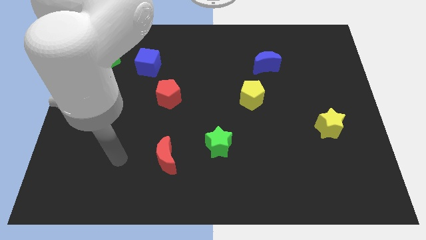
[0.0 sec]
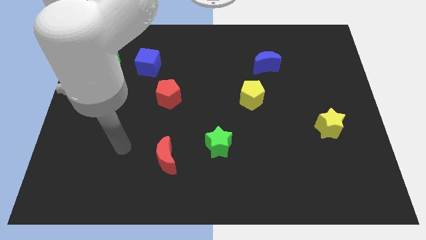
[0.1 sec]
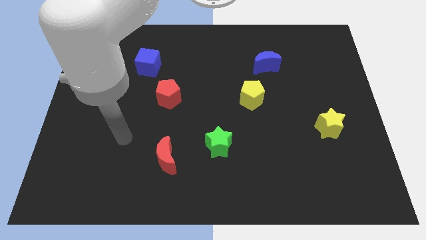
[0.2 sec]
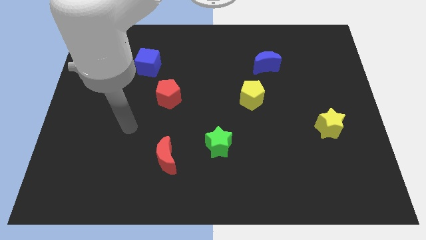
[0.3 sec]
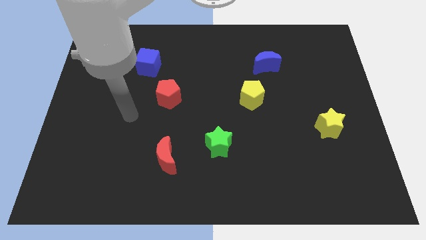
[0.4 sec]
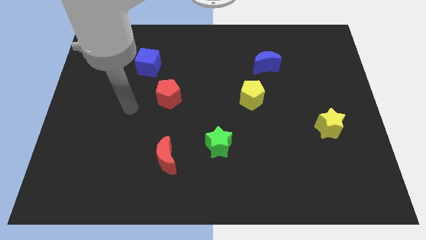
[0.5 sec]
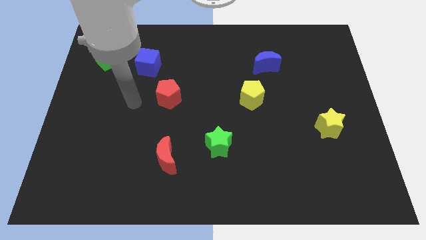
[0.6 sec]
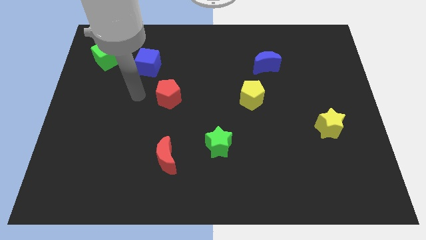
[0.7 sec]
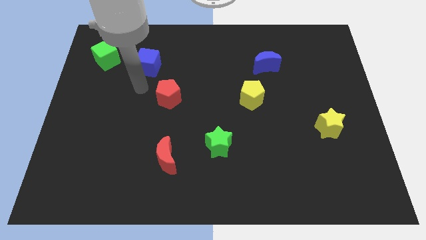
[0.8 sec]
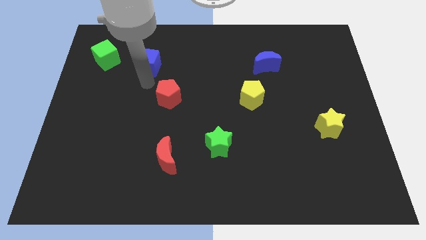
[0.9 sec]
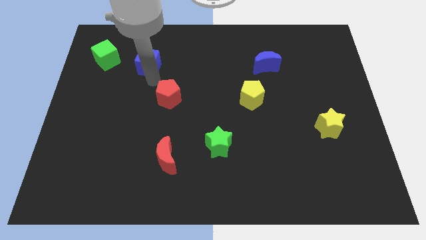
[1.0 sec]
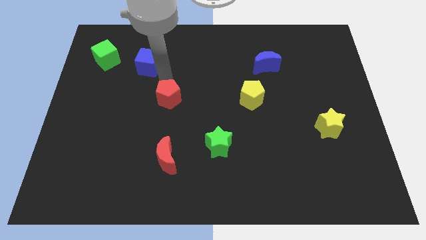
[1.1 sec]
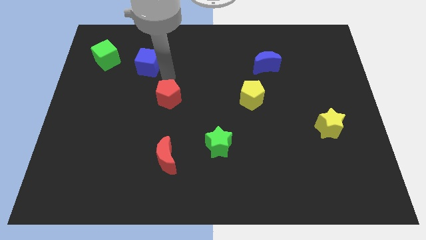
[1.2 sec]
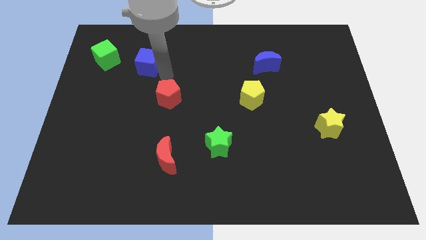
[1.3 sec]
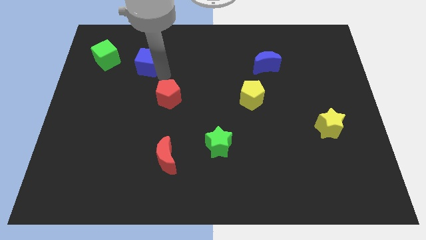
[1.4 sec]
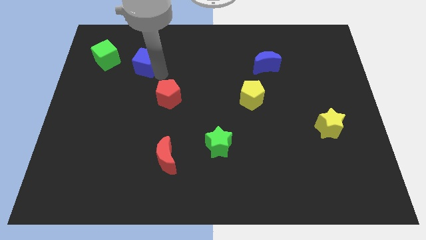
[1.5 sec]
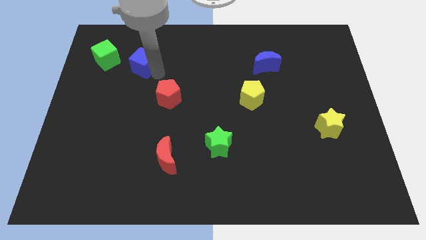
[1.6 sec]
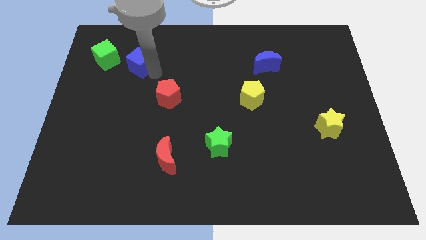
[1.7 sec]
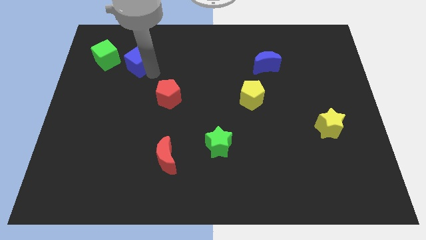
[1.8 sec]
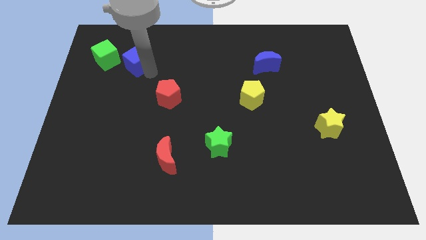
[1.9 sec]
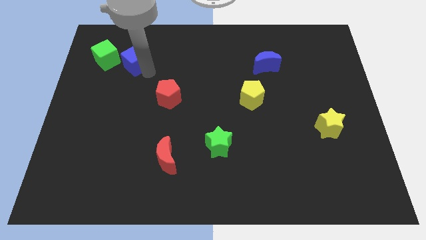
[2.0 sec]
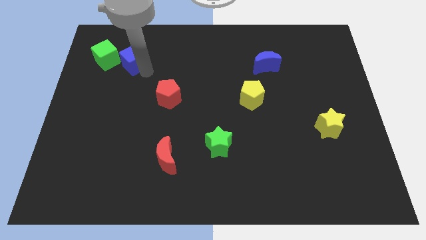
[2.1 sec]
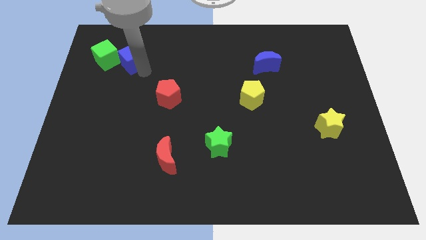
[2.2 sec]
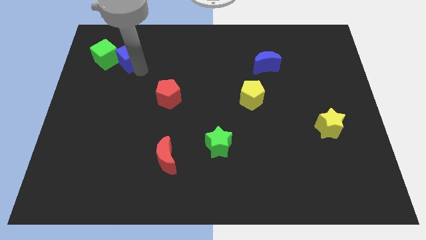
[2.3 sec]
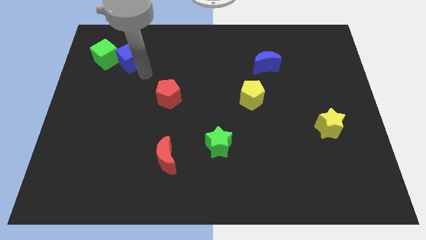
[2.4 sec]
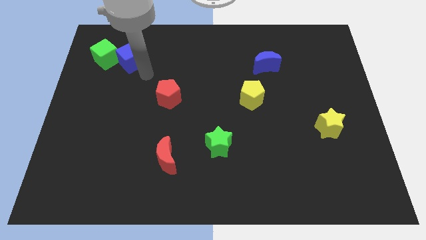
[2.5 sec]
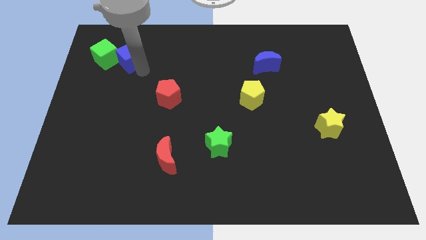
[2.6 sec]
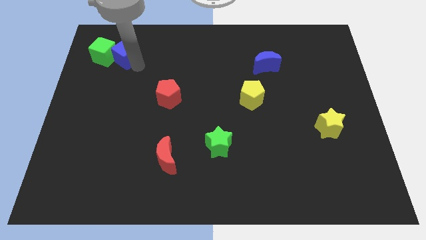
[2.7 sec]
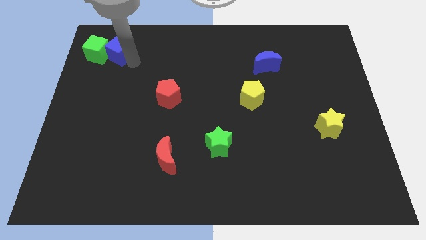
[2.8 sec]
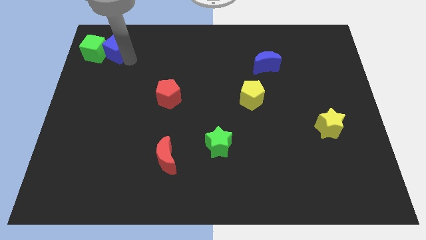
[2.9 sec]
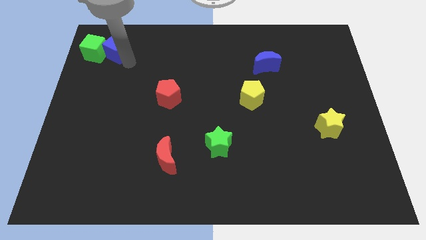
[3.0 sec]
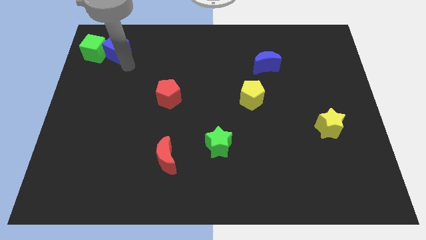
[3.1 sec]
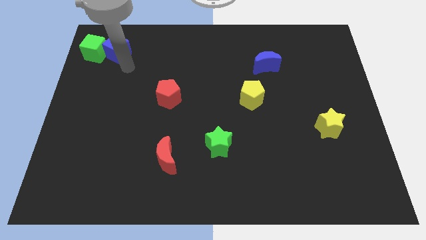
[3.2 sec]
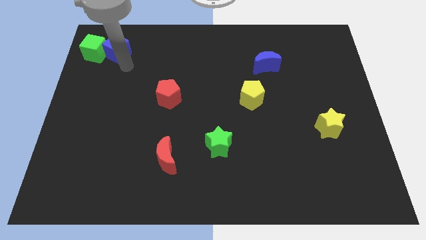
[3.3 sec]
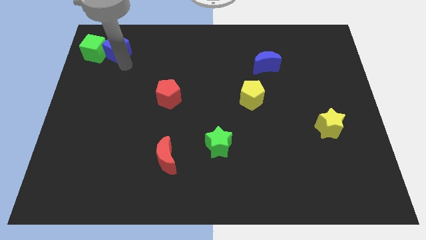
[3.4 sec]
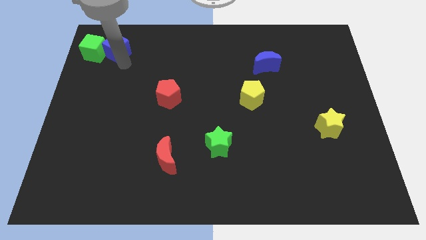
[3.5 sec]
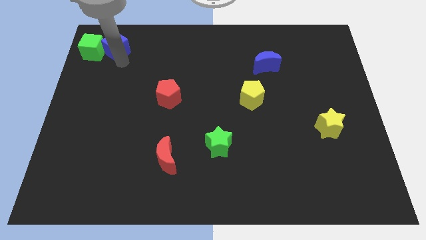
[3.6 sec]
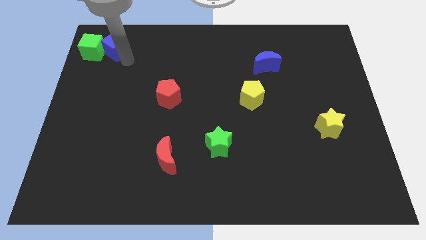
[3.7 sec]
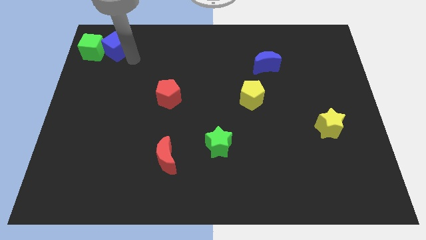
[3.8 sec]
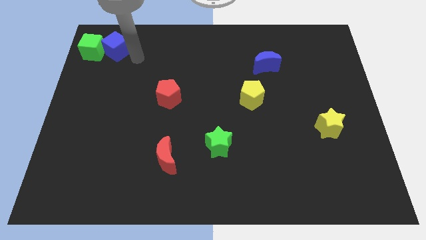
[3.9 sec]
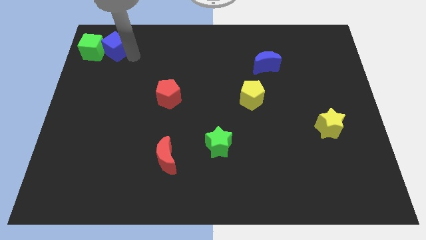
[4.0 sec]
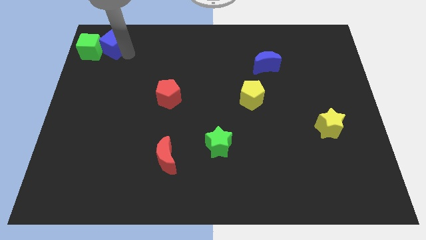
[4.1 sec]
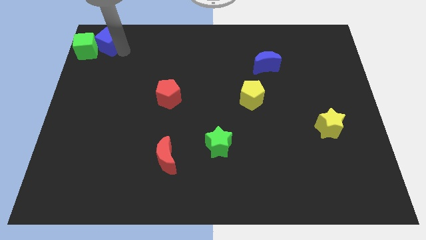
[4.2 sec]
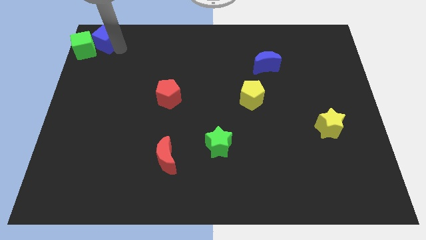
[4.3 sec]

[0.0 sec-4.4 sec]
put the blue cube to the top left of the board

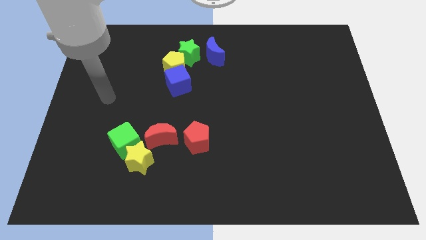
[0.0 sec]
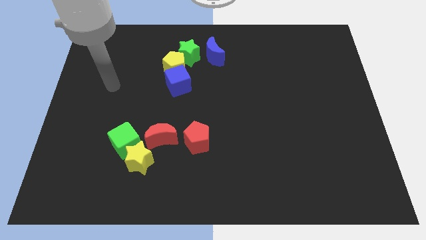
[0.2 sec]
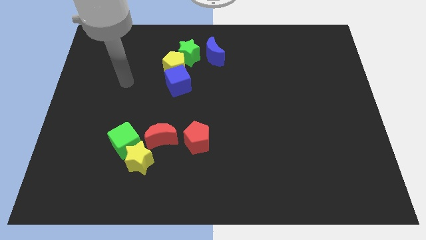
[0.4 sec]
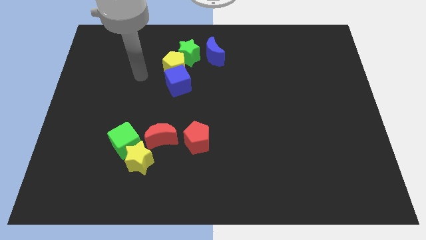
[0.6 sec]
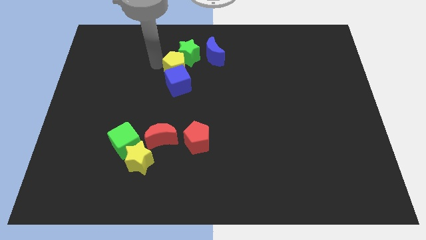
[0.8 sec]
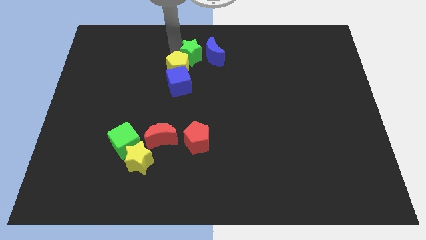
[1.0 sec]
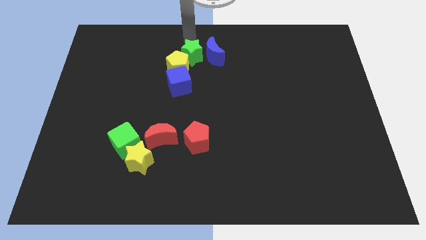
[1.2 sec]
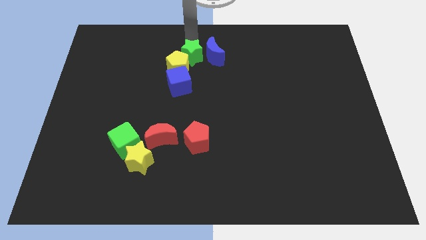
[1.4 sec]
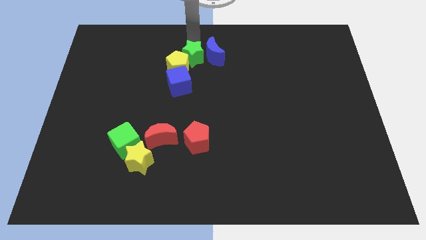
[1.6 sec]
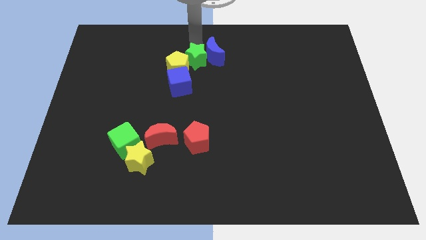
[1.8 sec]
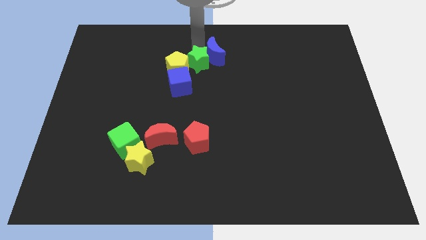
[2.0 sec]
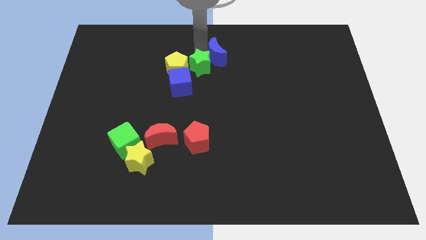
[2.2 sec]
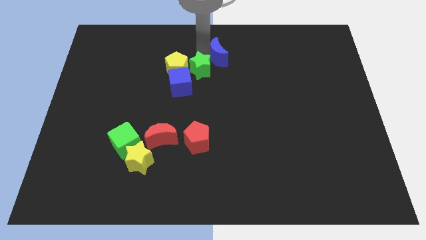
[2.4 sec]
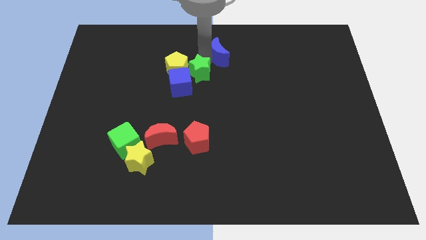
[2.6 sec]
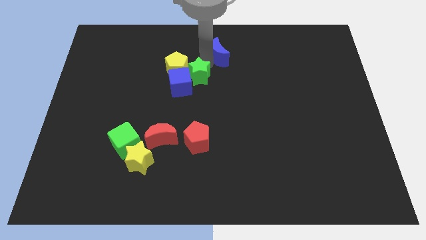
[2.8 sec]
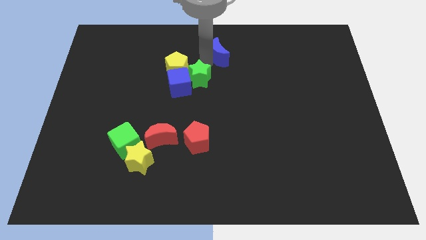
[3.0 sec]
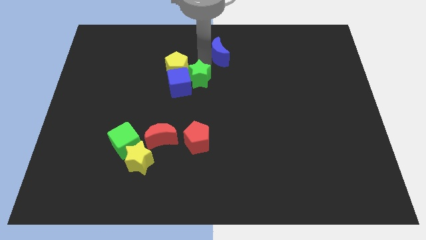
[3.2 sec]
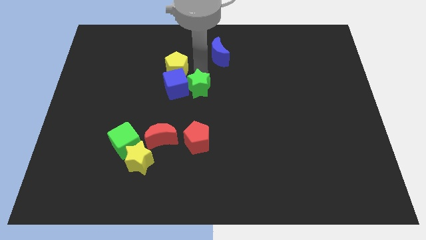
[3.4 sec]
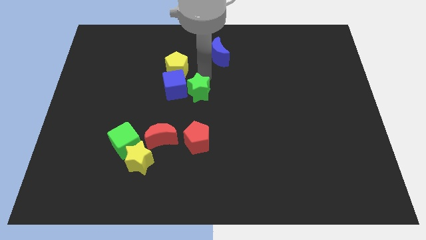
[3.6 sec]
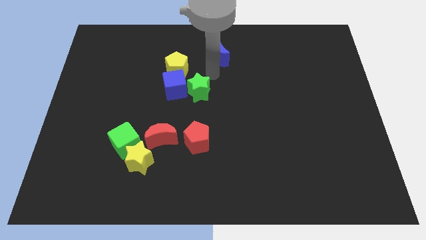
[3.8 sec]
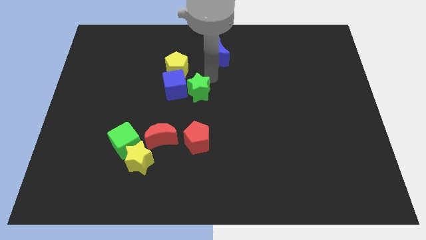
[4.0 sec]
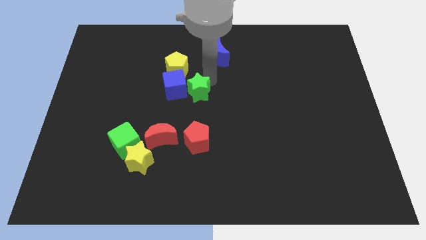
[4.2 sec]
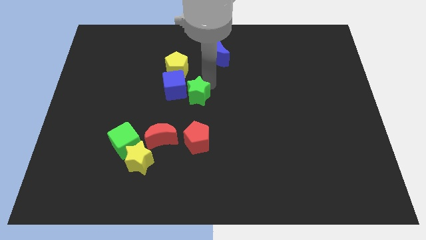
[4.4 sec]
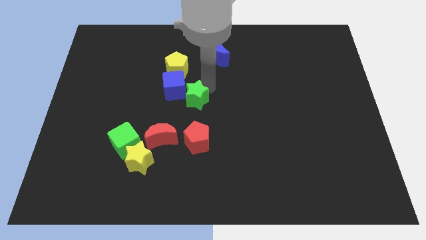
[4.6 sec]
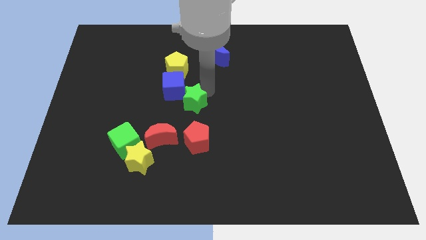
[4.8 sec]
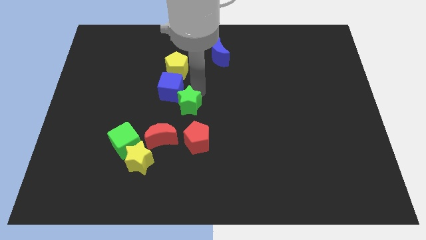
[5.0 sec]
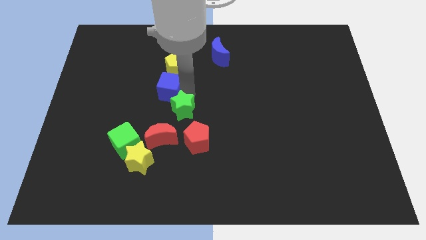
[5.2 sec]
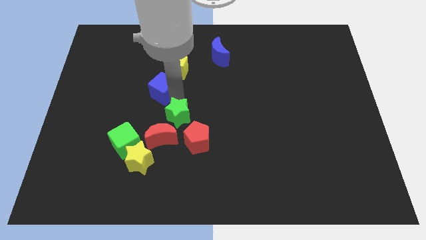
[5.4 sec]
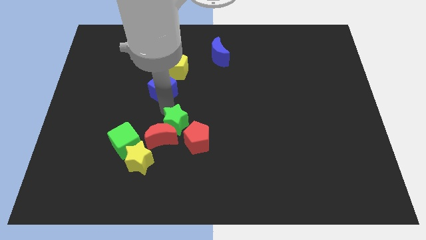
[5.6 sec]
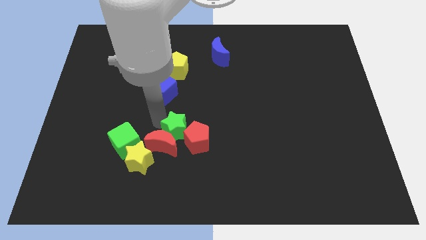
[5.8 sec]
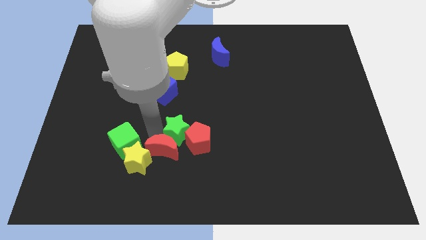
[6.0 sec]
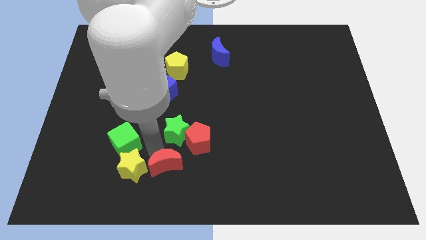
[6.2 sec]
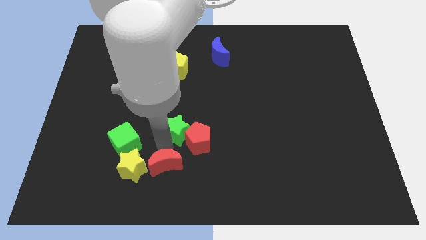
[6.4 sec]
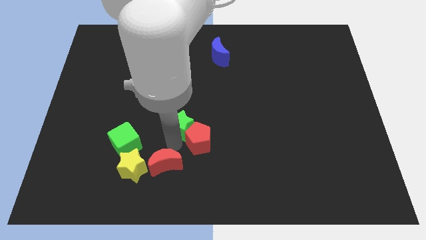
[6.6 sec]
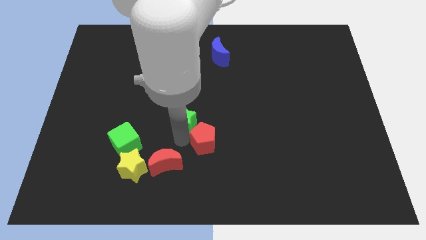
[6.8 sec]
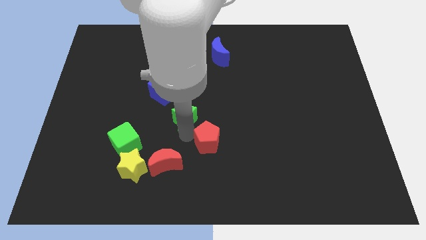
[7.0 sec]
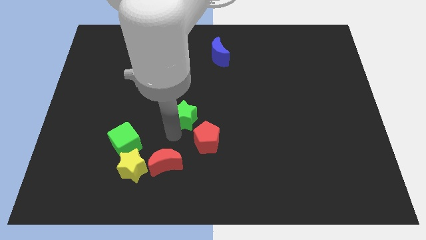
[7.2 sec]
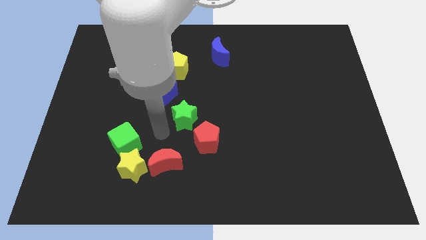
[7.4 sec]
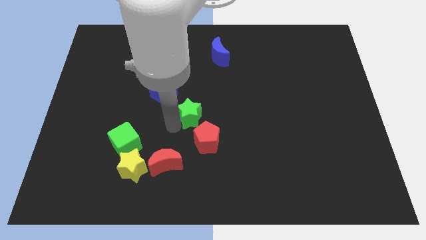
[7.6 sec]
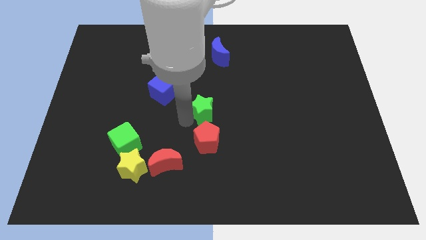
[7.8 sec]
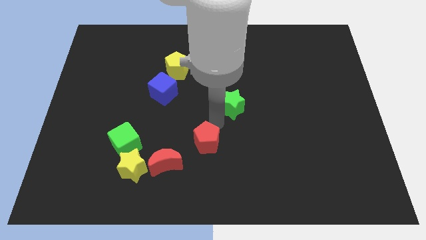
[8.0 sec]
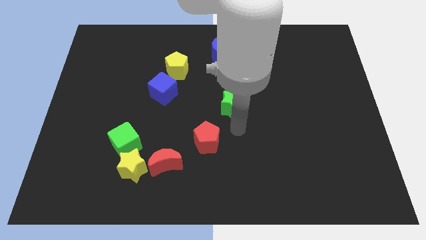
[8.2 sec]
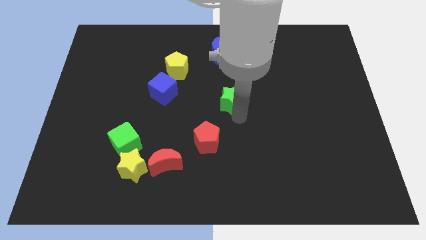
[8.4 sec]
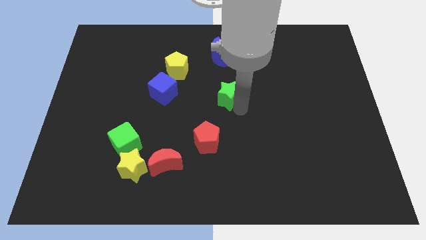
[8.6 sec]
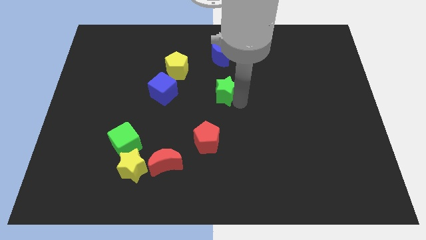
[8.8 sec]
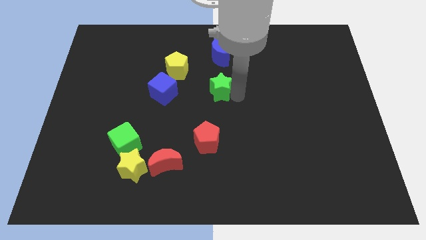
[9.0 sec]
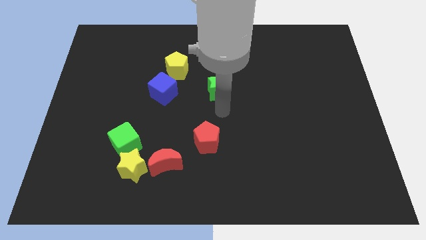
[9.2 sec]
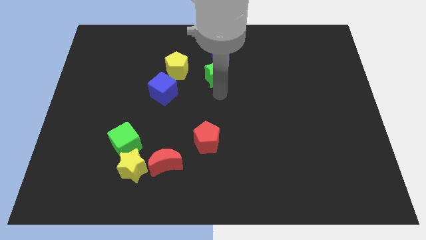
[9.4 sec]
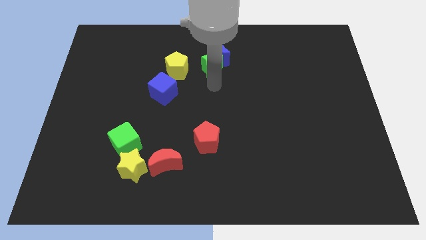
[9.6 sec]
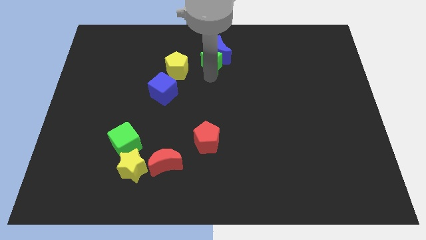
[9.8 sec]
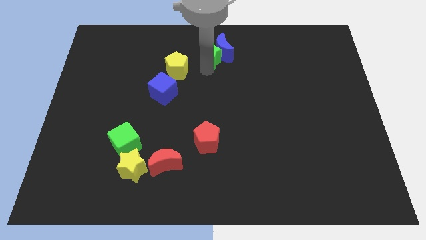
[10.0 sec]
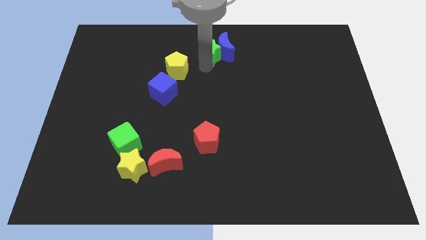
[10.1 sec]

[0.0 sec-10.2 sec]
move the green star to the towards your base
